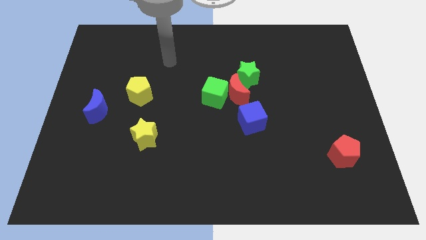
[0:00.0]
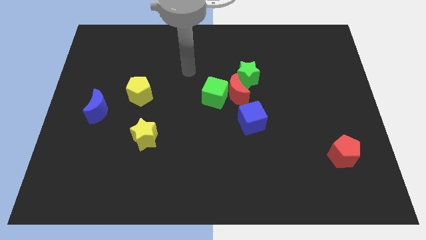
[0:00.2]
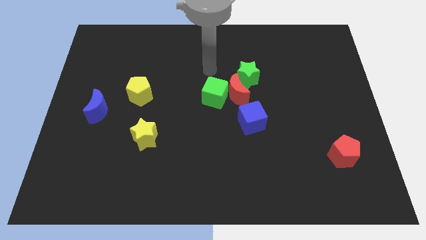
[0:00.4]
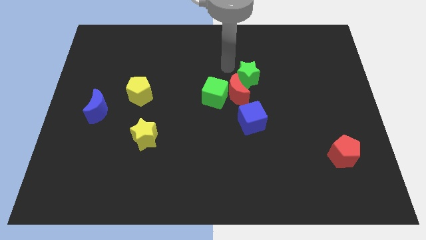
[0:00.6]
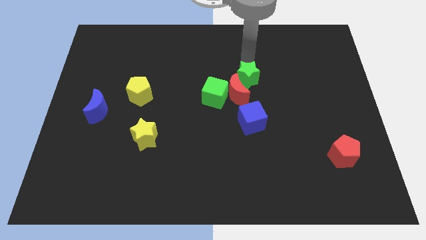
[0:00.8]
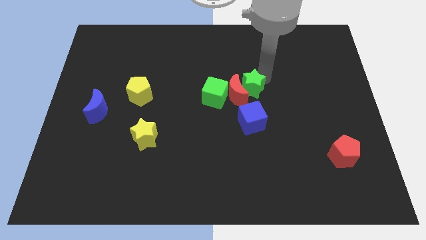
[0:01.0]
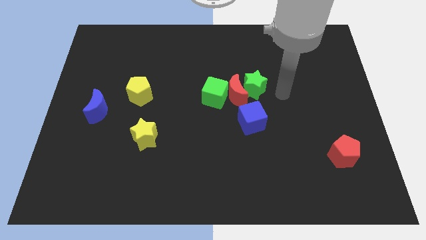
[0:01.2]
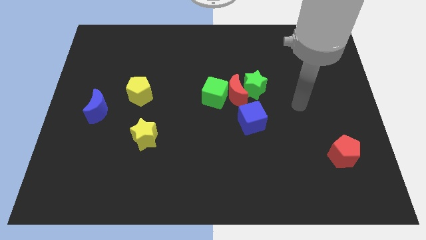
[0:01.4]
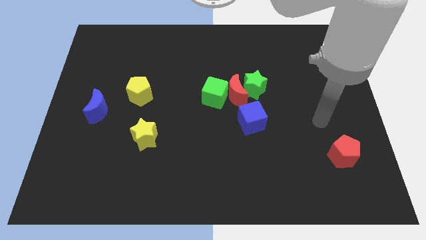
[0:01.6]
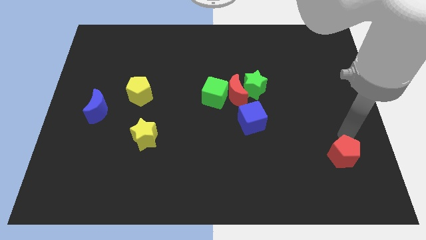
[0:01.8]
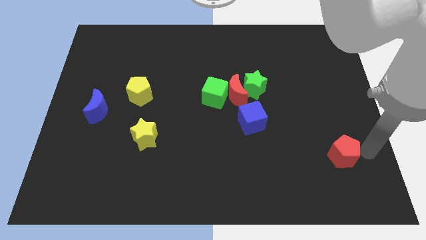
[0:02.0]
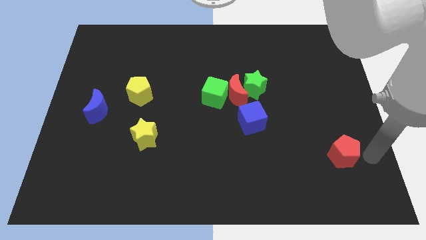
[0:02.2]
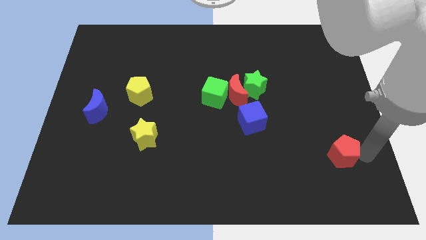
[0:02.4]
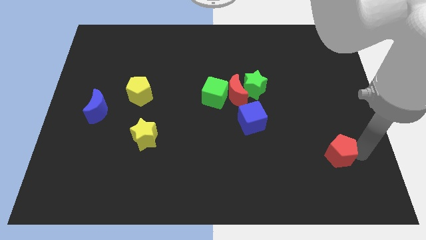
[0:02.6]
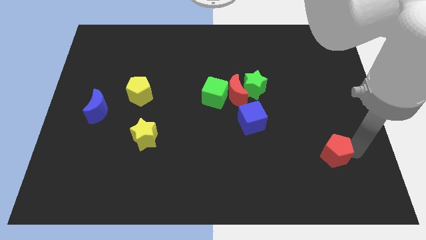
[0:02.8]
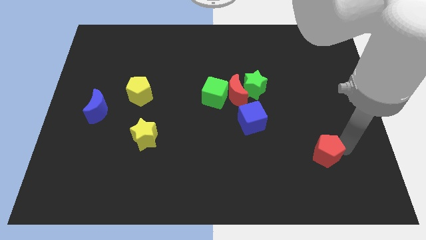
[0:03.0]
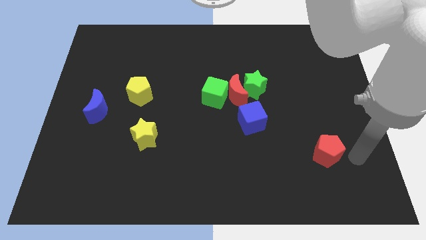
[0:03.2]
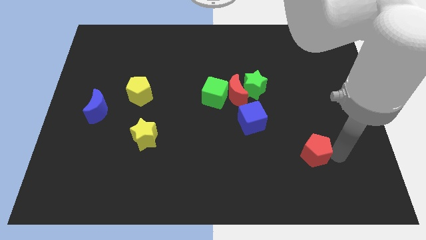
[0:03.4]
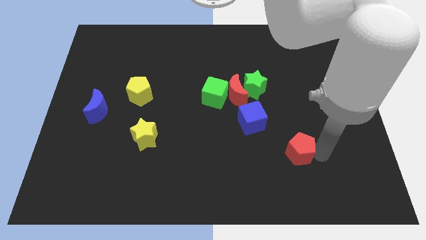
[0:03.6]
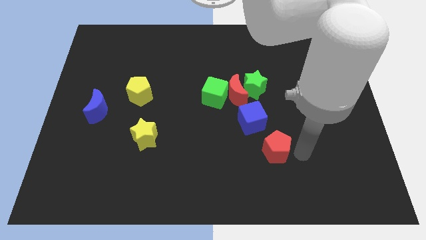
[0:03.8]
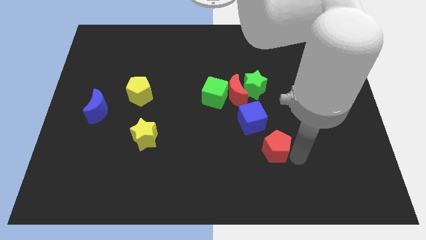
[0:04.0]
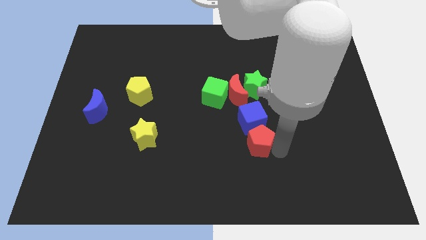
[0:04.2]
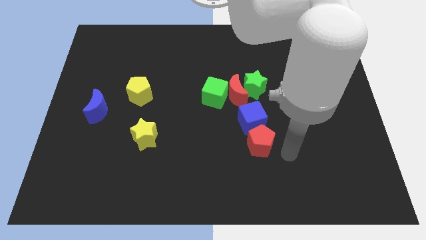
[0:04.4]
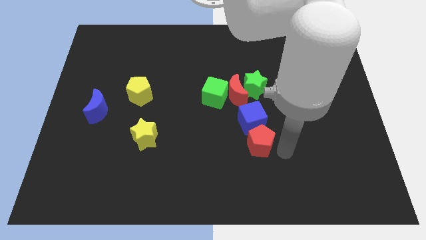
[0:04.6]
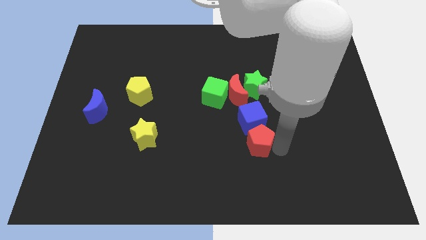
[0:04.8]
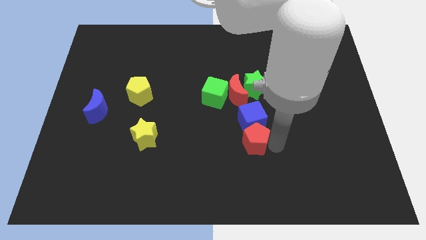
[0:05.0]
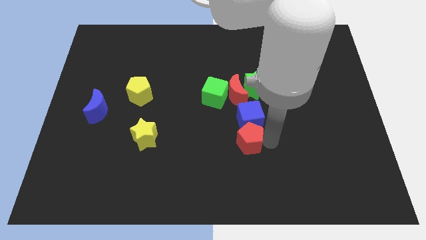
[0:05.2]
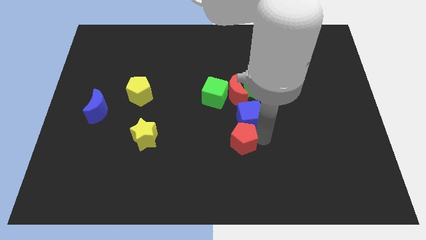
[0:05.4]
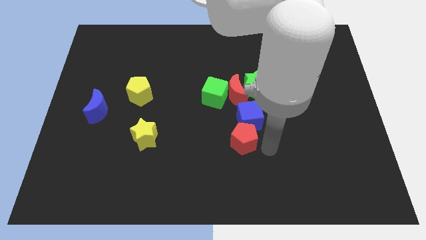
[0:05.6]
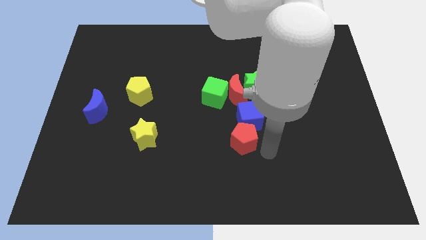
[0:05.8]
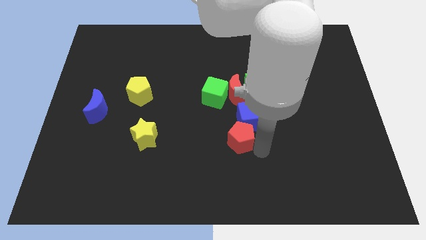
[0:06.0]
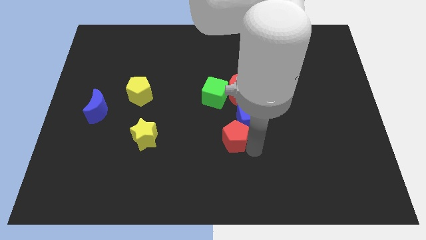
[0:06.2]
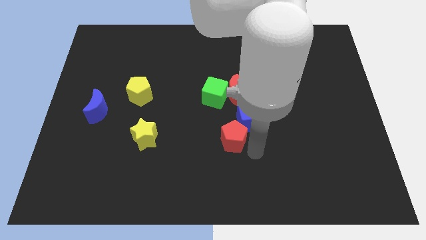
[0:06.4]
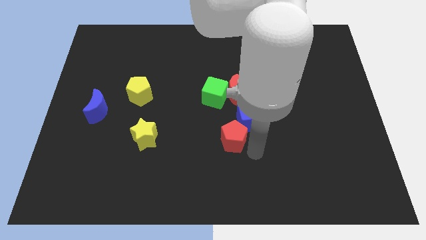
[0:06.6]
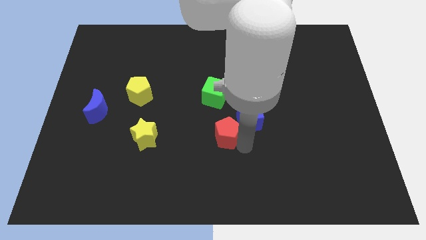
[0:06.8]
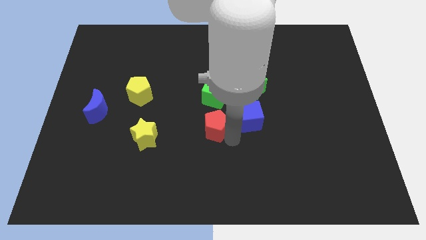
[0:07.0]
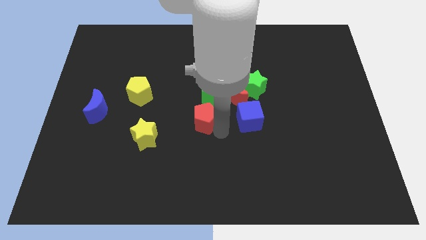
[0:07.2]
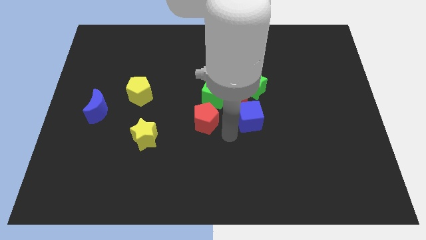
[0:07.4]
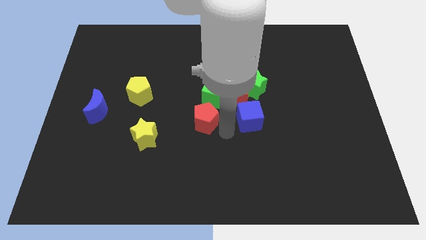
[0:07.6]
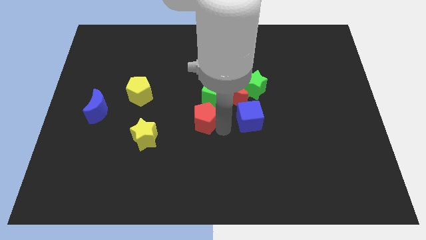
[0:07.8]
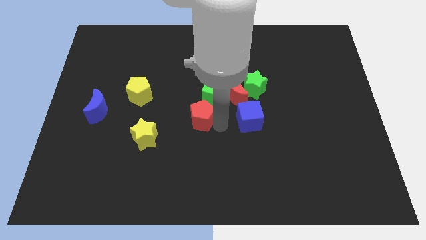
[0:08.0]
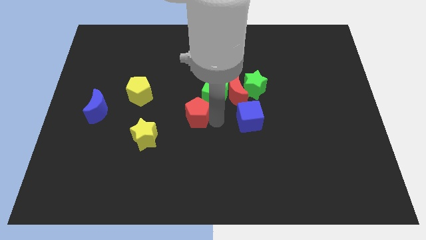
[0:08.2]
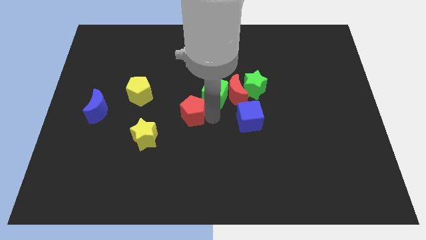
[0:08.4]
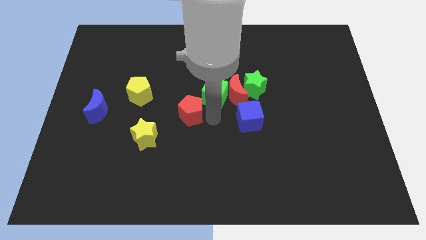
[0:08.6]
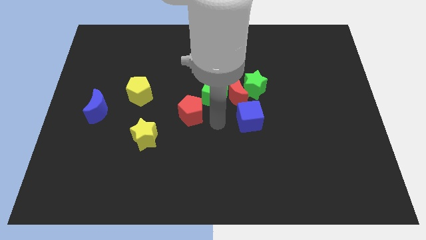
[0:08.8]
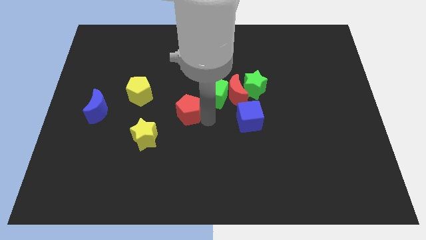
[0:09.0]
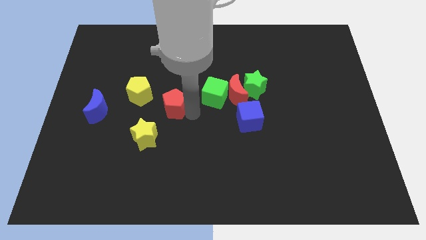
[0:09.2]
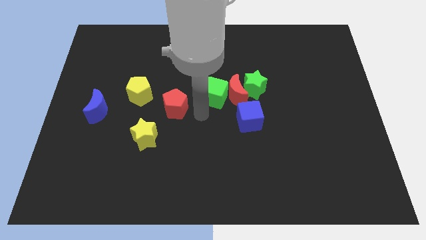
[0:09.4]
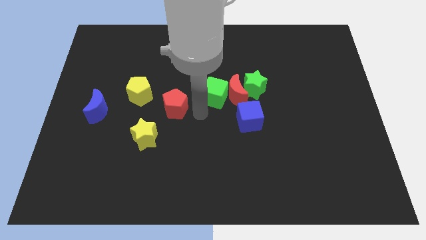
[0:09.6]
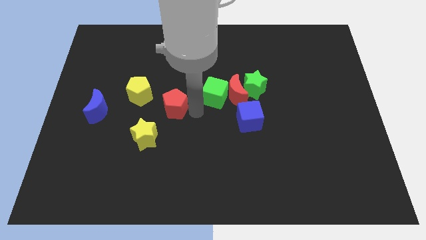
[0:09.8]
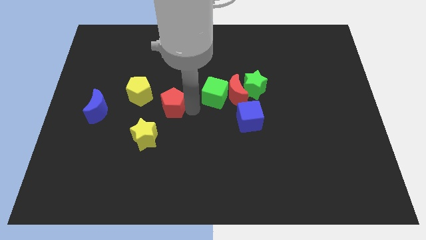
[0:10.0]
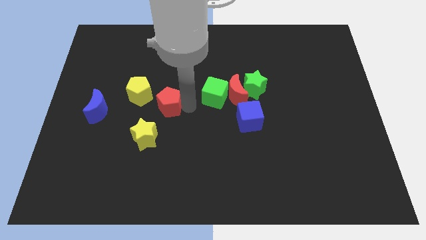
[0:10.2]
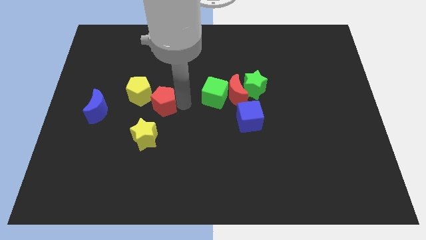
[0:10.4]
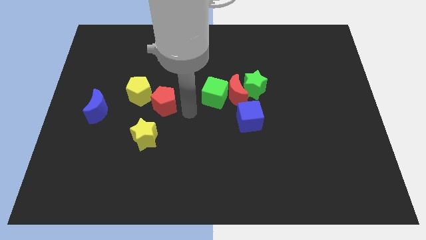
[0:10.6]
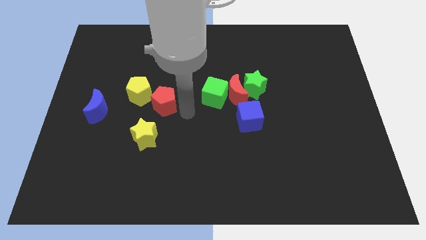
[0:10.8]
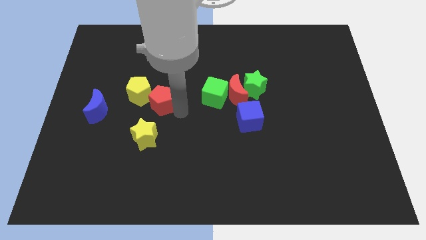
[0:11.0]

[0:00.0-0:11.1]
move the red pentagon next to the yellow pentagon

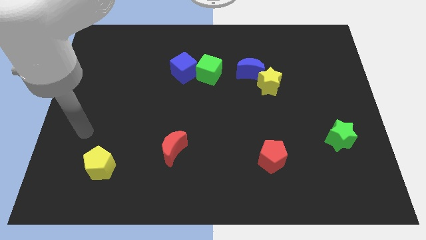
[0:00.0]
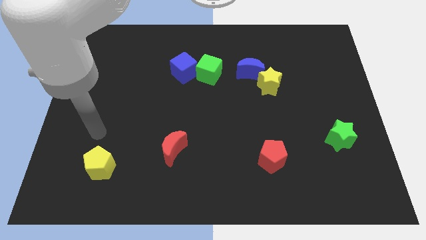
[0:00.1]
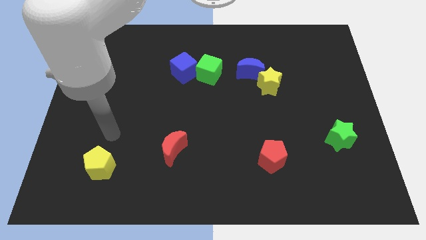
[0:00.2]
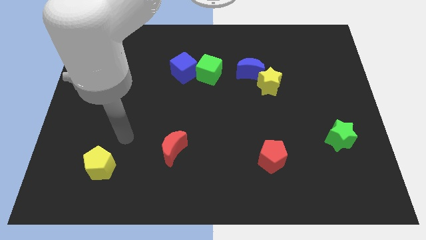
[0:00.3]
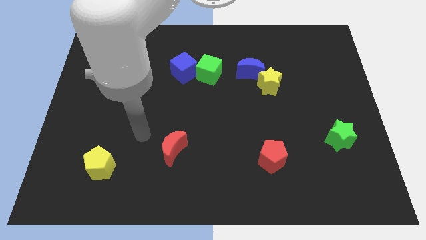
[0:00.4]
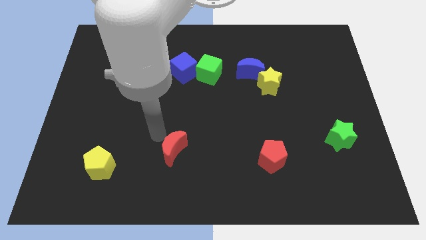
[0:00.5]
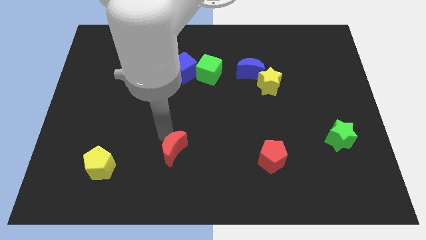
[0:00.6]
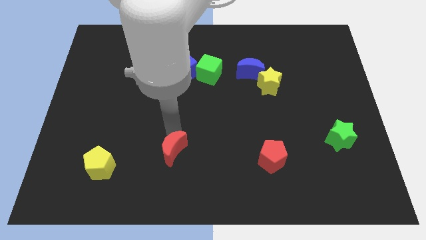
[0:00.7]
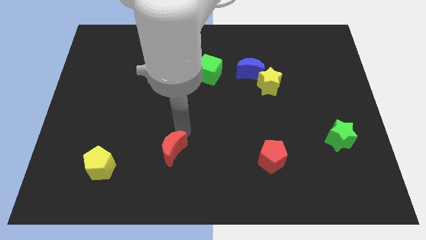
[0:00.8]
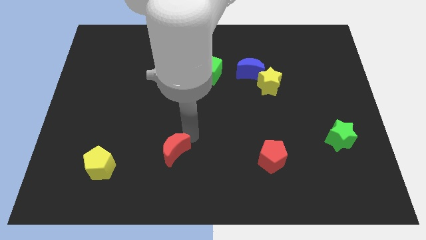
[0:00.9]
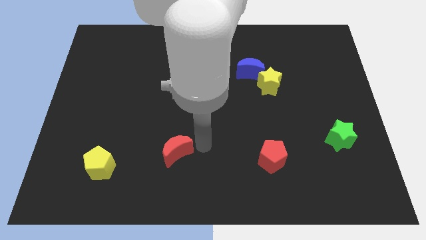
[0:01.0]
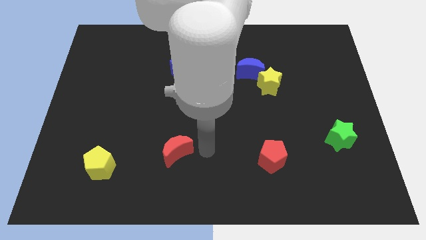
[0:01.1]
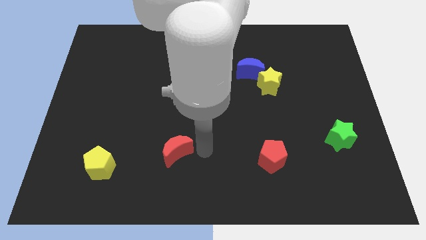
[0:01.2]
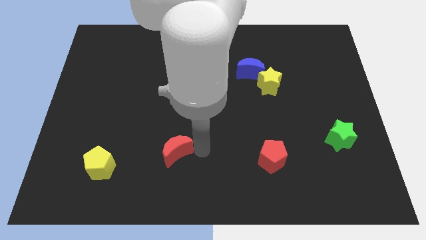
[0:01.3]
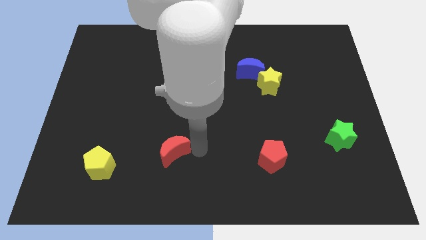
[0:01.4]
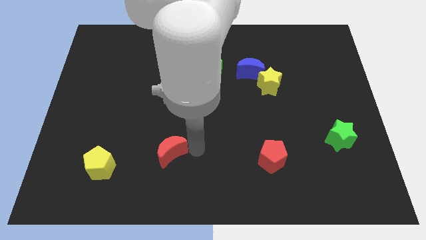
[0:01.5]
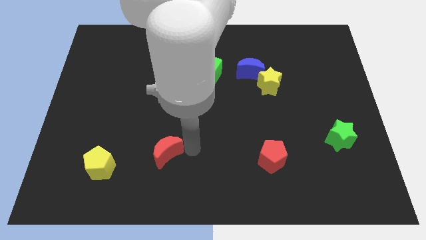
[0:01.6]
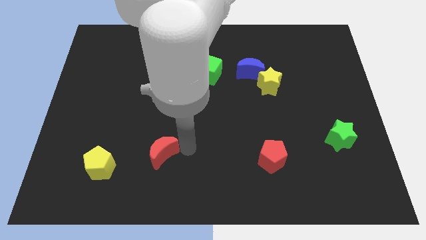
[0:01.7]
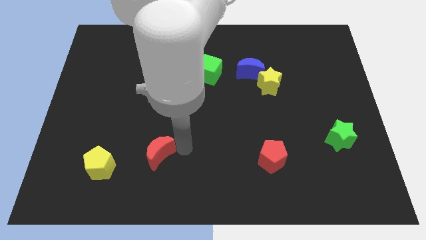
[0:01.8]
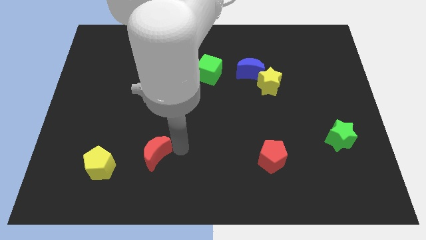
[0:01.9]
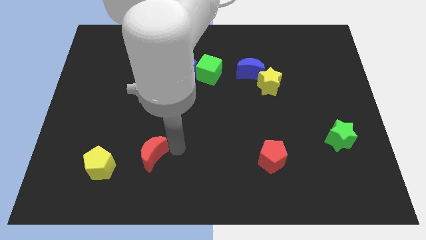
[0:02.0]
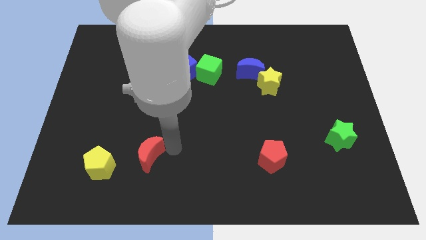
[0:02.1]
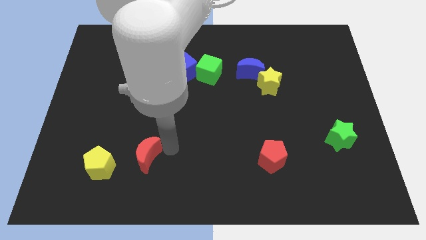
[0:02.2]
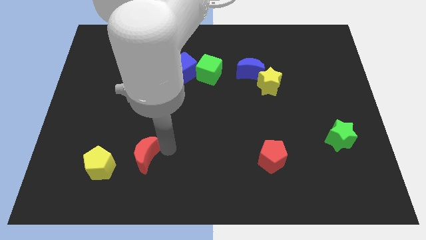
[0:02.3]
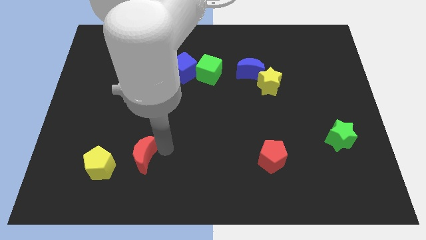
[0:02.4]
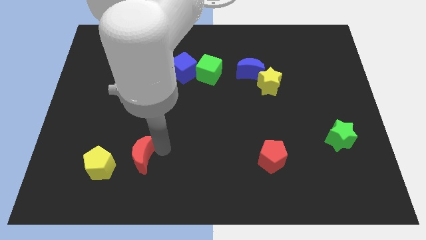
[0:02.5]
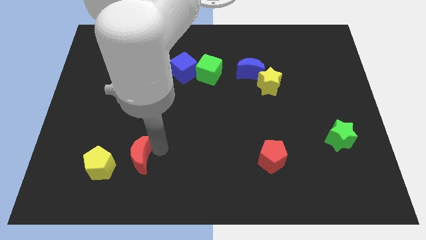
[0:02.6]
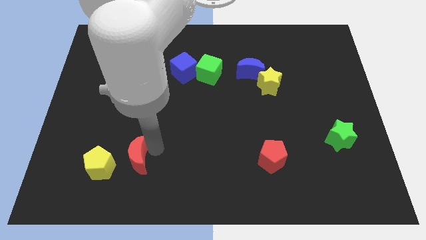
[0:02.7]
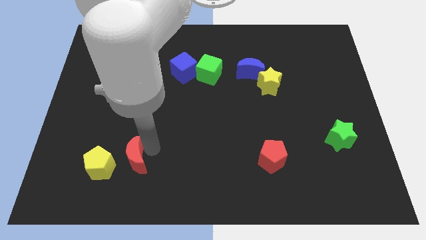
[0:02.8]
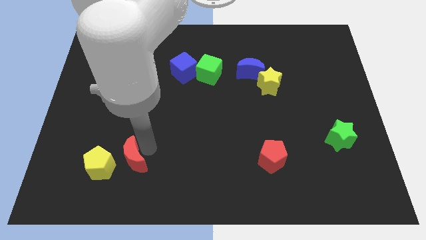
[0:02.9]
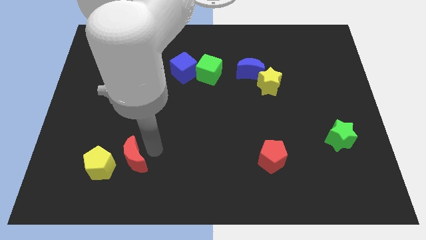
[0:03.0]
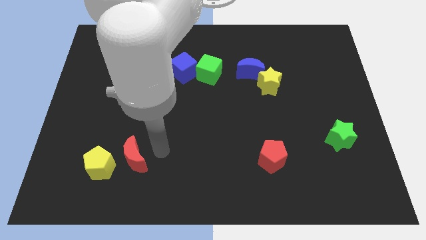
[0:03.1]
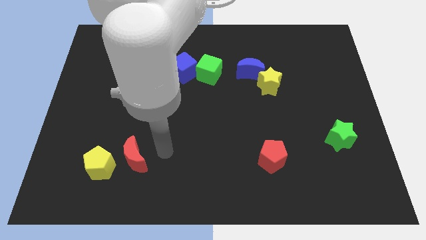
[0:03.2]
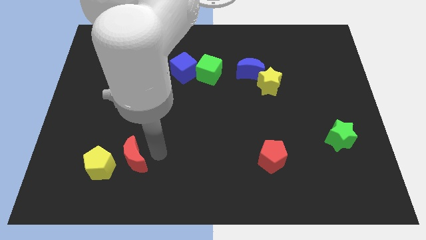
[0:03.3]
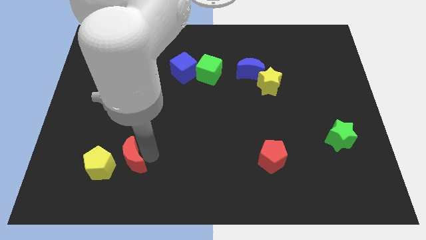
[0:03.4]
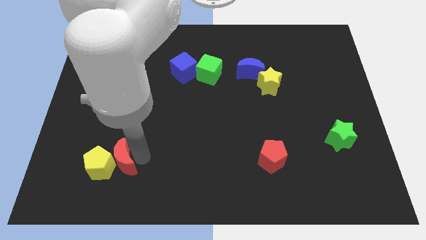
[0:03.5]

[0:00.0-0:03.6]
put the red moon towards the yellow pentagon
